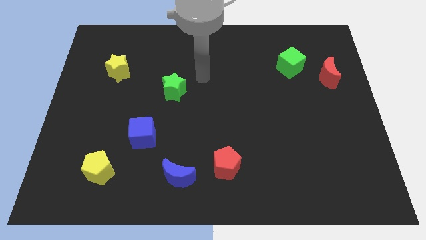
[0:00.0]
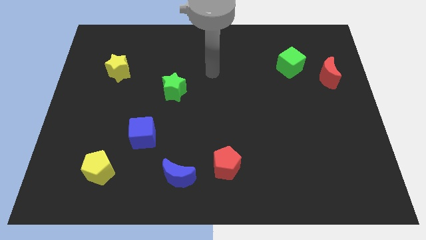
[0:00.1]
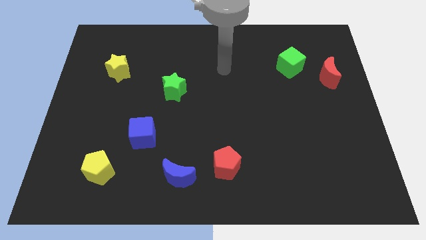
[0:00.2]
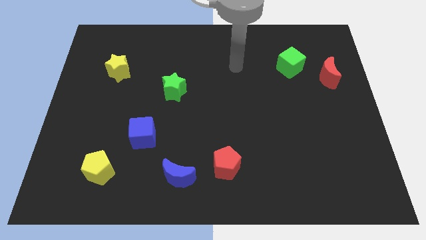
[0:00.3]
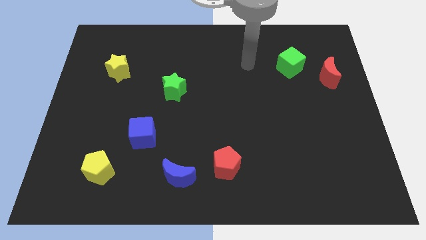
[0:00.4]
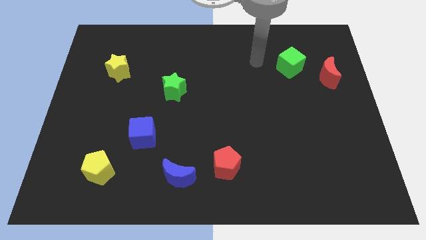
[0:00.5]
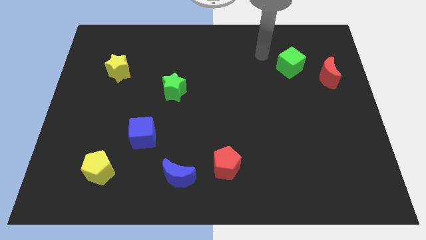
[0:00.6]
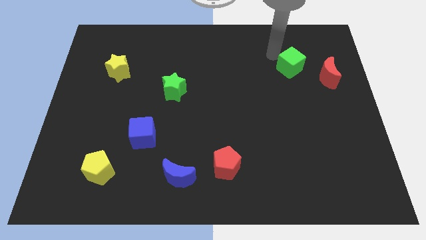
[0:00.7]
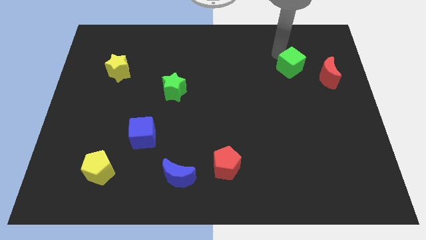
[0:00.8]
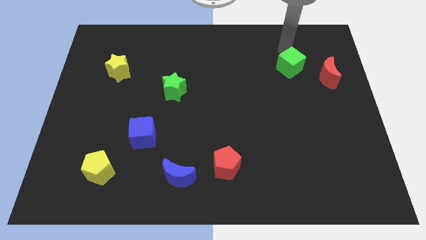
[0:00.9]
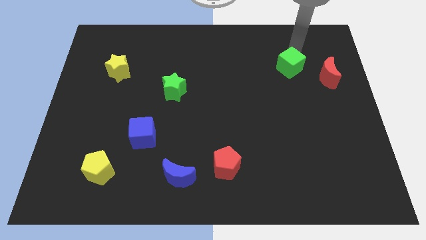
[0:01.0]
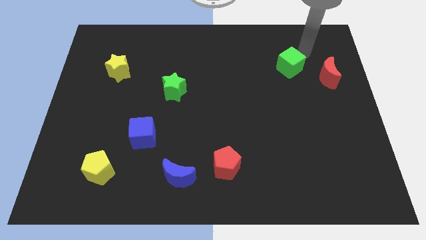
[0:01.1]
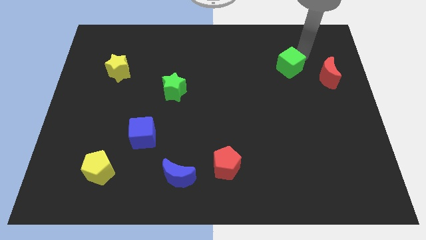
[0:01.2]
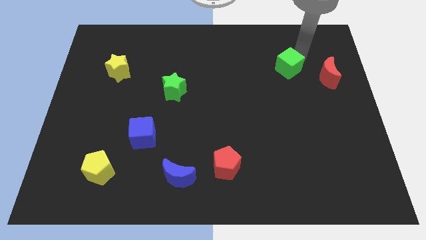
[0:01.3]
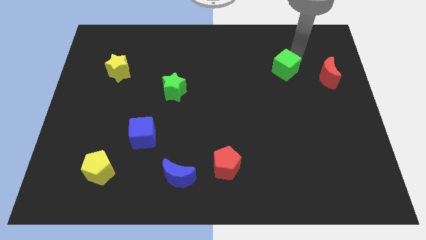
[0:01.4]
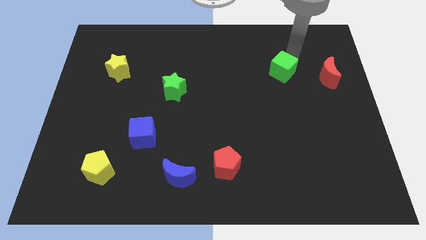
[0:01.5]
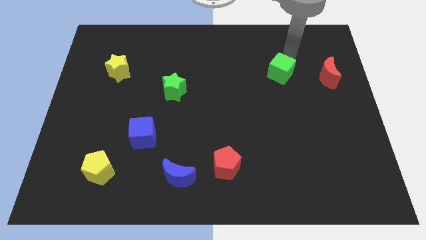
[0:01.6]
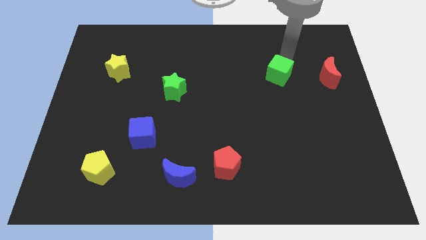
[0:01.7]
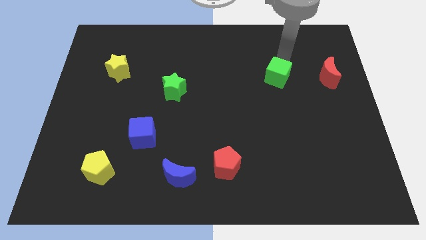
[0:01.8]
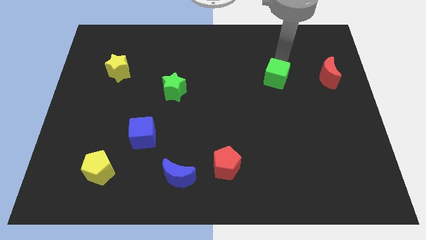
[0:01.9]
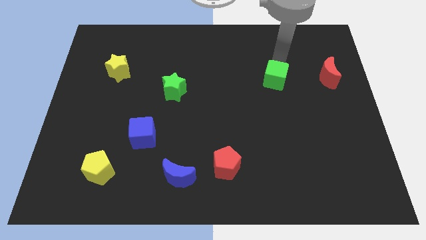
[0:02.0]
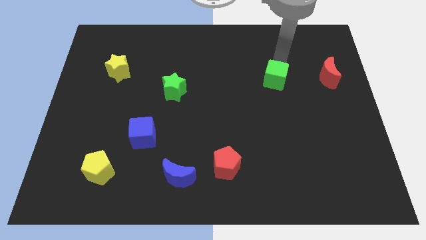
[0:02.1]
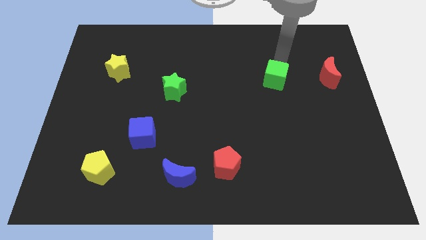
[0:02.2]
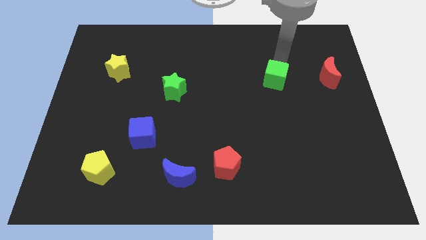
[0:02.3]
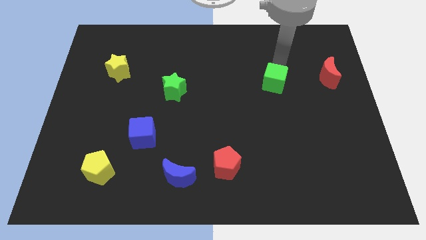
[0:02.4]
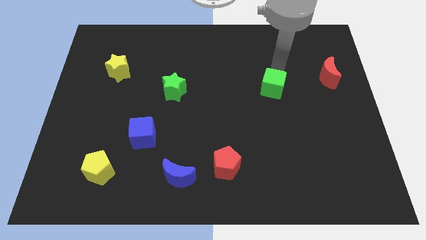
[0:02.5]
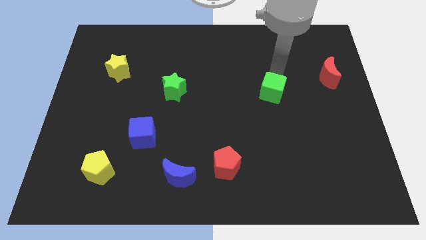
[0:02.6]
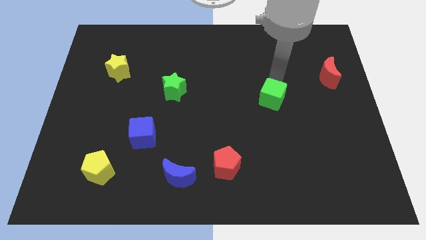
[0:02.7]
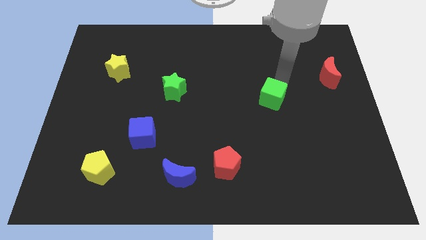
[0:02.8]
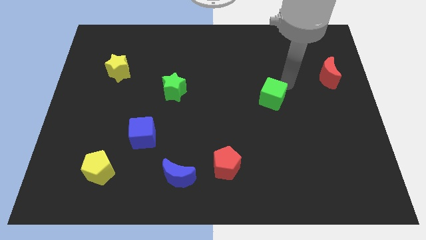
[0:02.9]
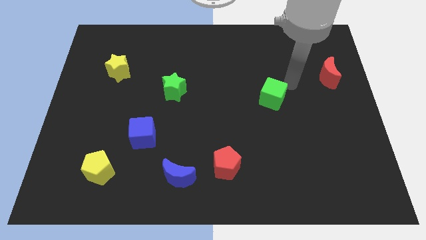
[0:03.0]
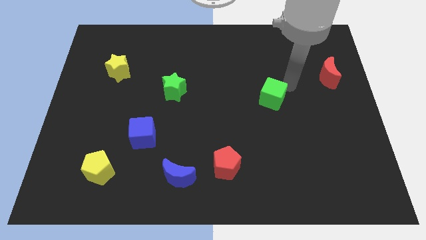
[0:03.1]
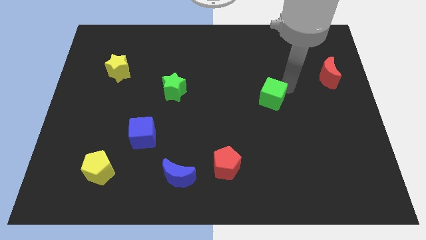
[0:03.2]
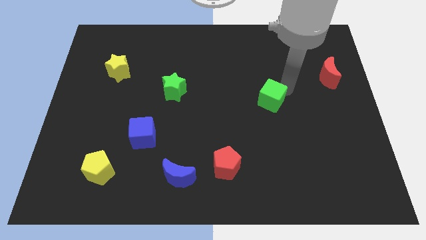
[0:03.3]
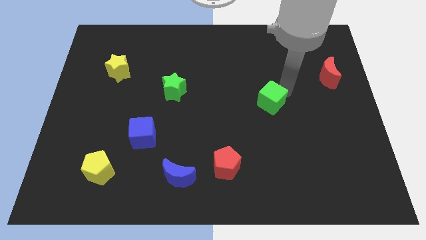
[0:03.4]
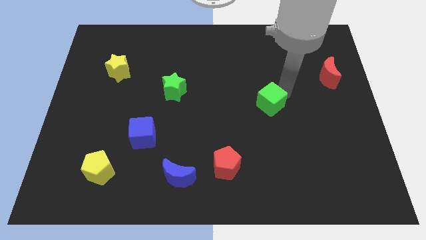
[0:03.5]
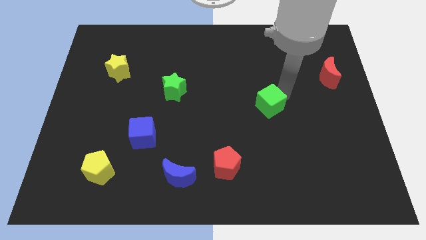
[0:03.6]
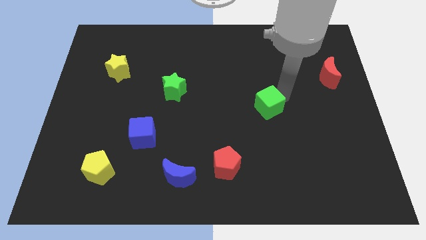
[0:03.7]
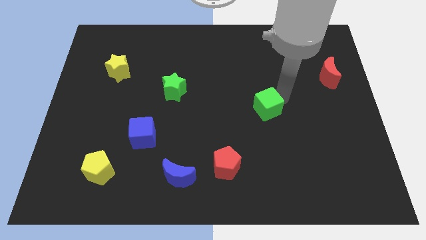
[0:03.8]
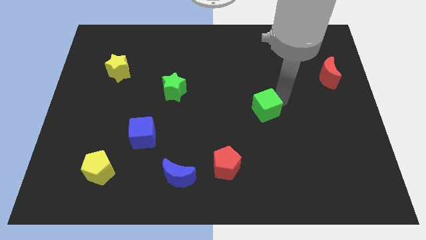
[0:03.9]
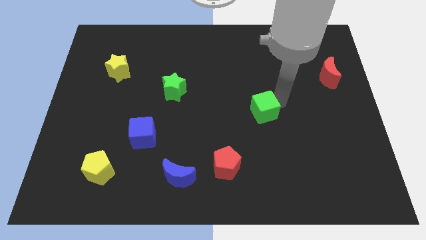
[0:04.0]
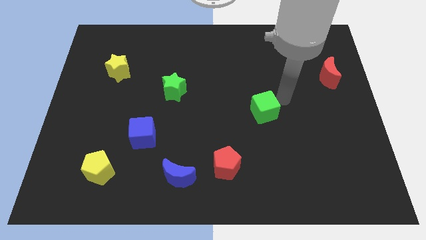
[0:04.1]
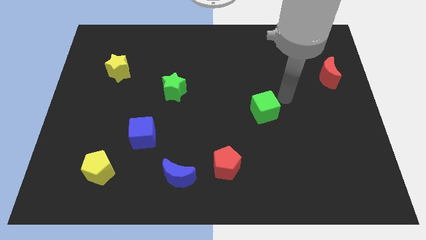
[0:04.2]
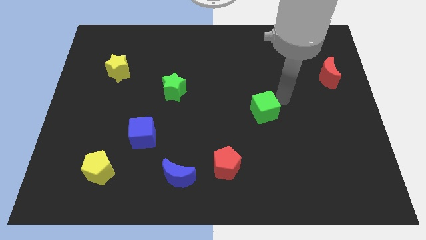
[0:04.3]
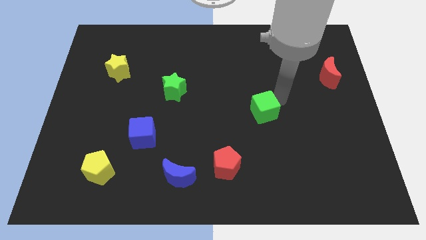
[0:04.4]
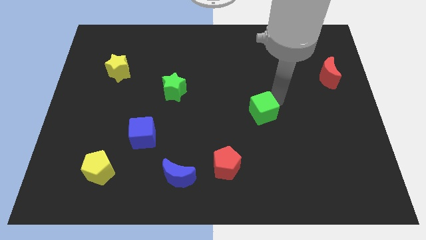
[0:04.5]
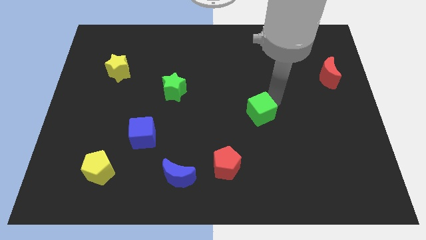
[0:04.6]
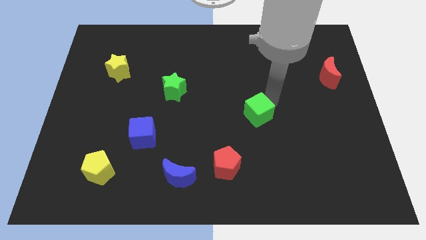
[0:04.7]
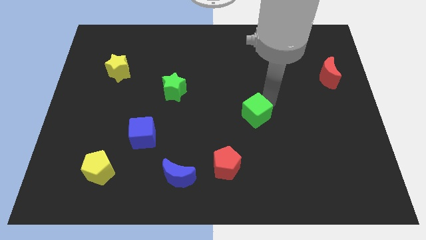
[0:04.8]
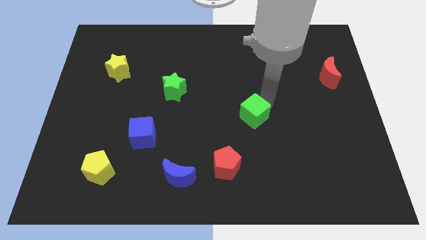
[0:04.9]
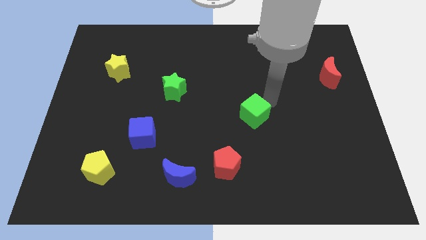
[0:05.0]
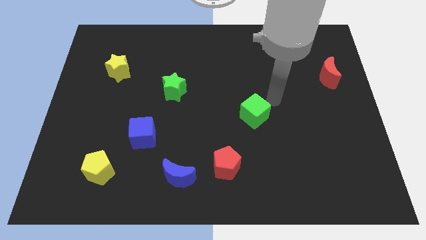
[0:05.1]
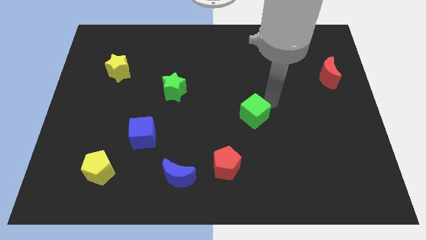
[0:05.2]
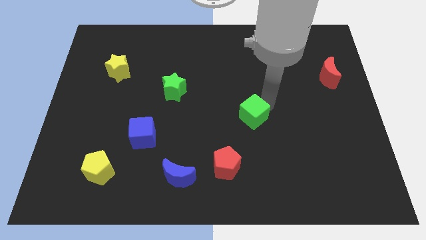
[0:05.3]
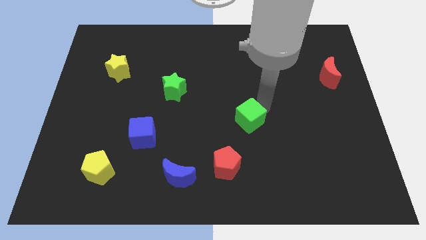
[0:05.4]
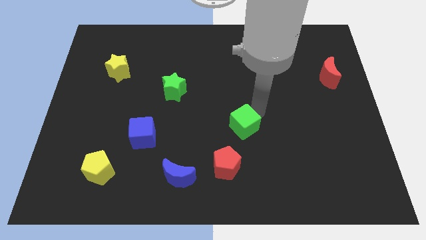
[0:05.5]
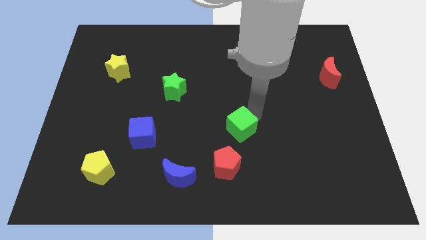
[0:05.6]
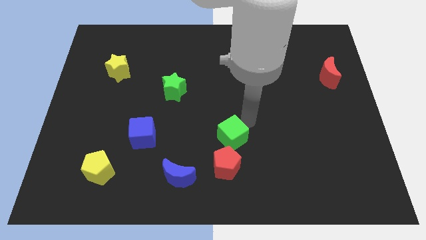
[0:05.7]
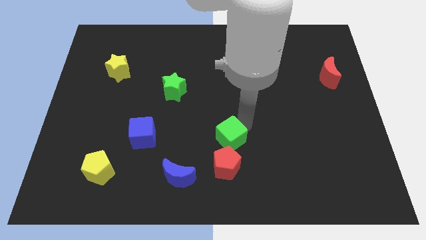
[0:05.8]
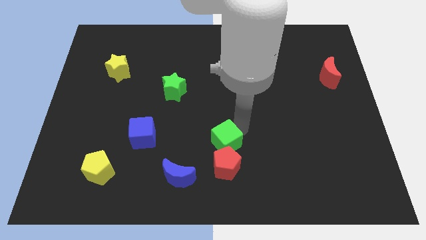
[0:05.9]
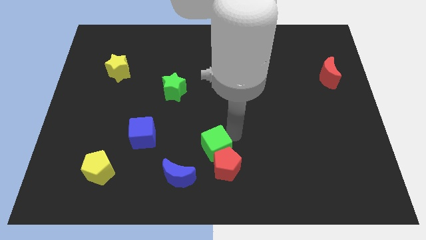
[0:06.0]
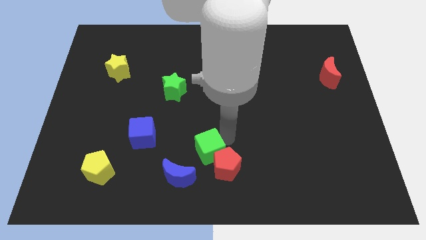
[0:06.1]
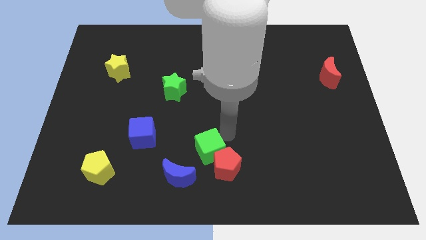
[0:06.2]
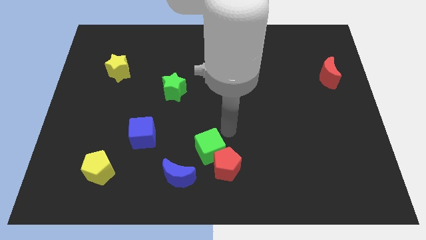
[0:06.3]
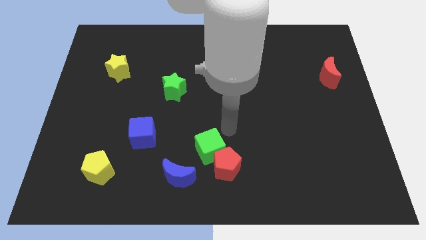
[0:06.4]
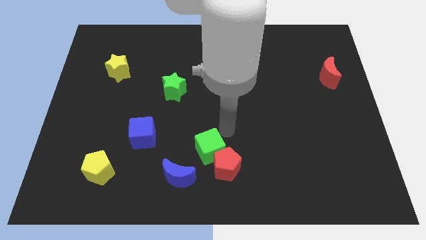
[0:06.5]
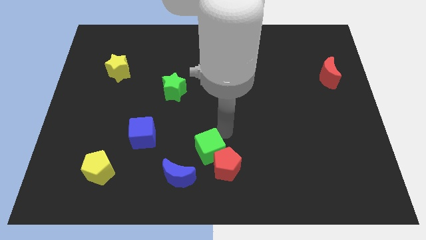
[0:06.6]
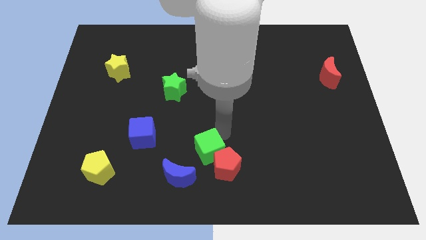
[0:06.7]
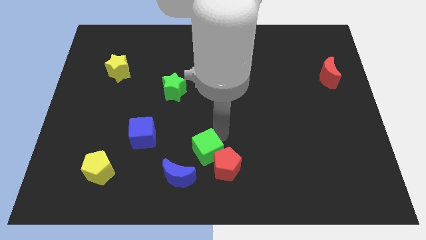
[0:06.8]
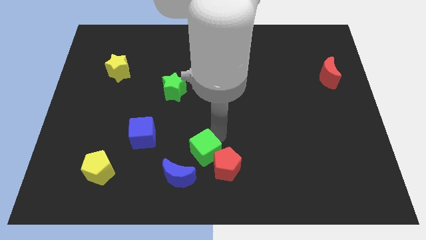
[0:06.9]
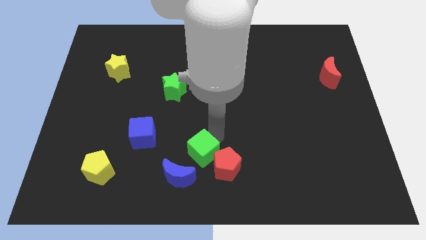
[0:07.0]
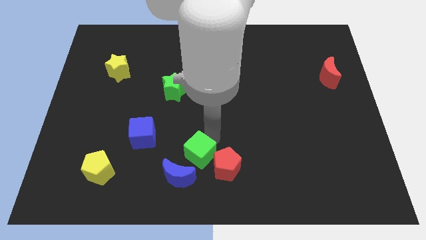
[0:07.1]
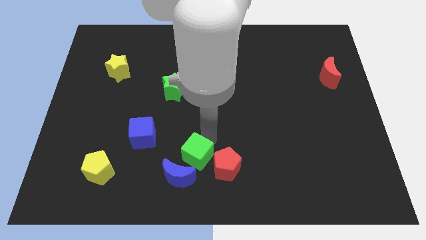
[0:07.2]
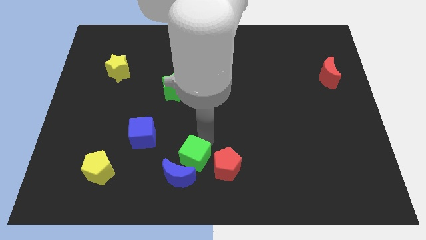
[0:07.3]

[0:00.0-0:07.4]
put the green cube to the blue moon
